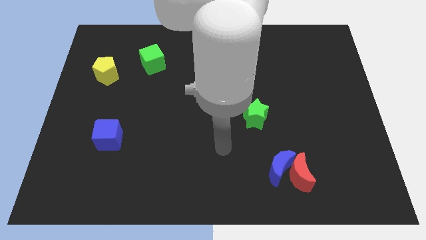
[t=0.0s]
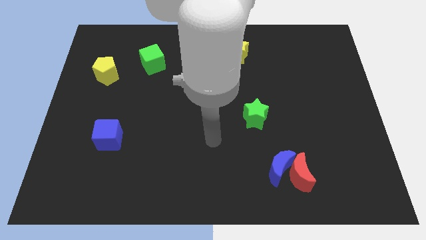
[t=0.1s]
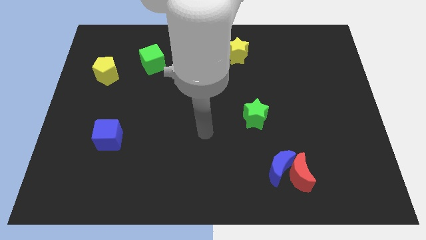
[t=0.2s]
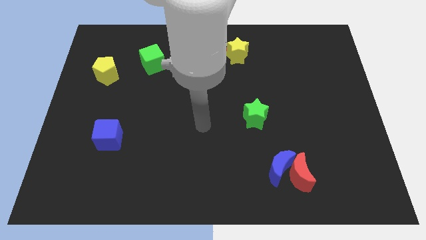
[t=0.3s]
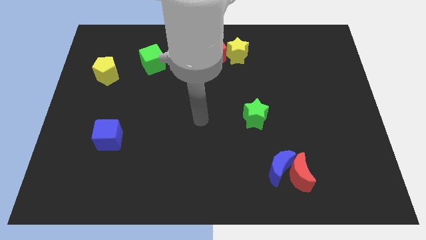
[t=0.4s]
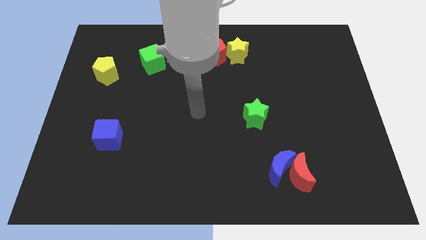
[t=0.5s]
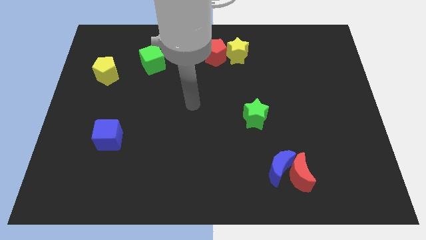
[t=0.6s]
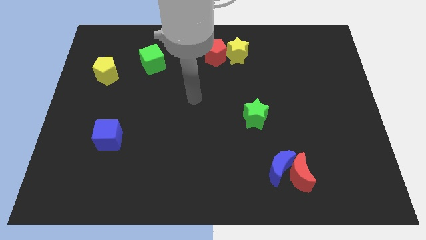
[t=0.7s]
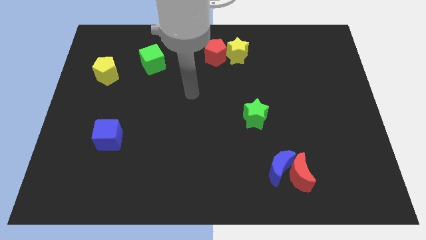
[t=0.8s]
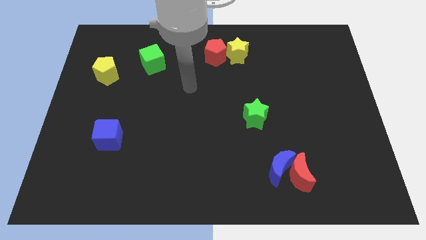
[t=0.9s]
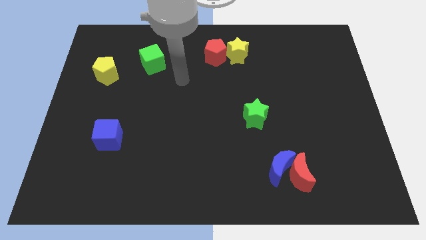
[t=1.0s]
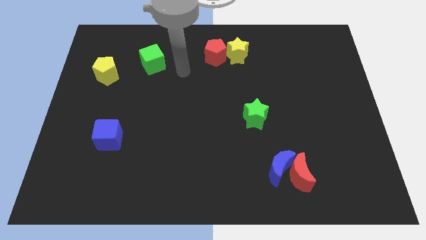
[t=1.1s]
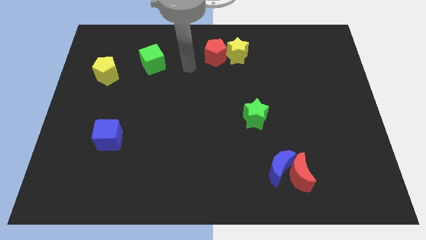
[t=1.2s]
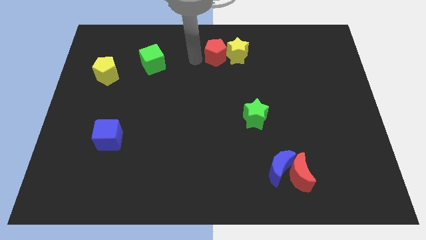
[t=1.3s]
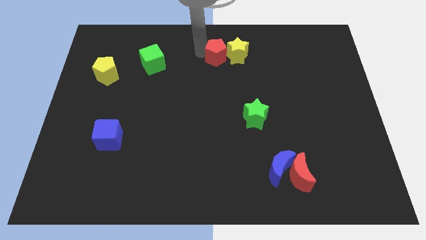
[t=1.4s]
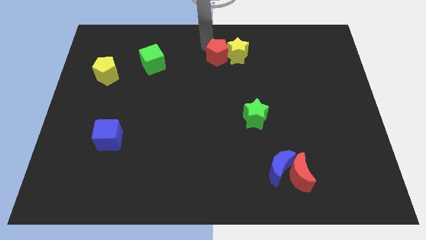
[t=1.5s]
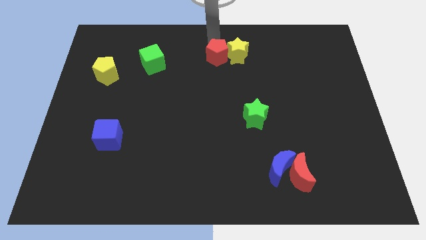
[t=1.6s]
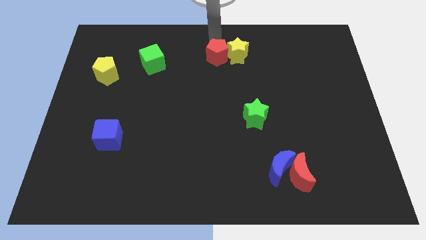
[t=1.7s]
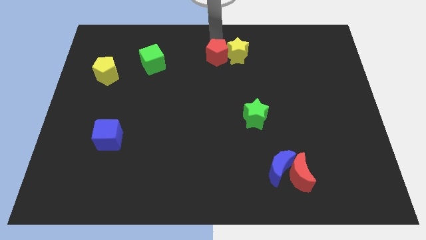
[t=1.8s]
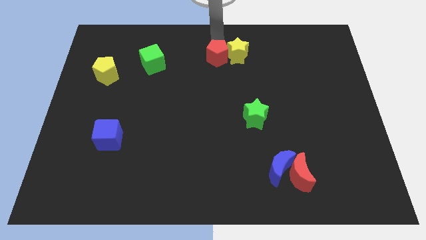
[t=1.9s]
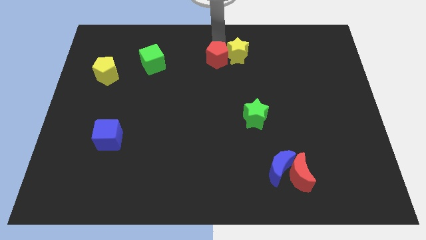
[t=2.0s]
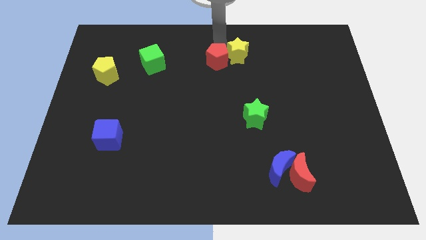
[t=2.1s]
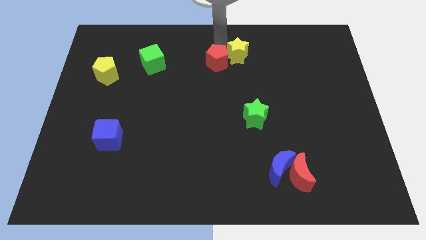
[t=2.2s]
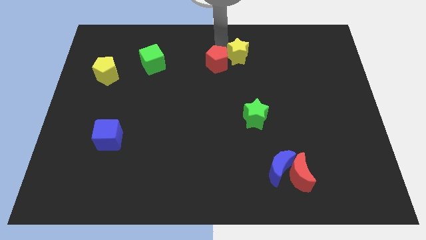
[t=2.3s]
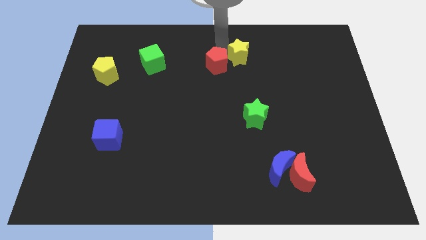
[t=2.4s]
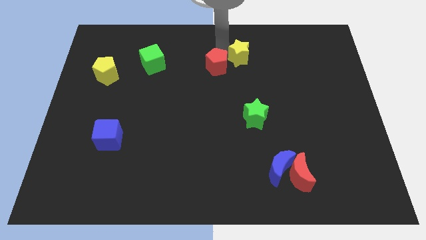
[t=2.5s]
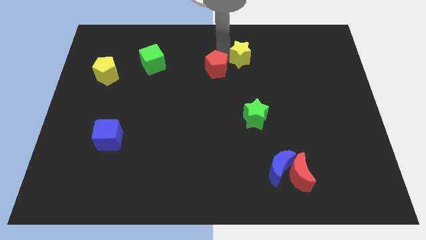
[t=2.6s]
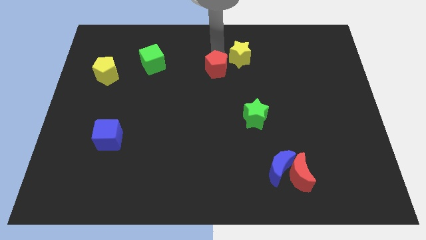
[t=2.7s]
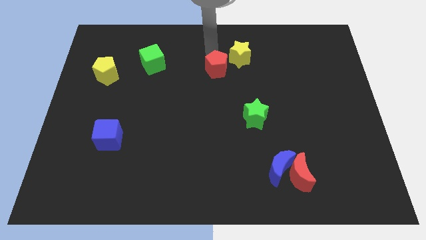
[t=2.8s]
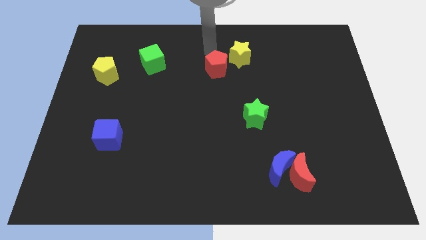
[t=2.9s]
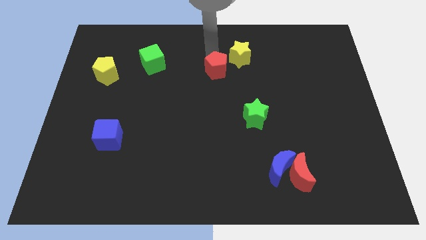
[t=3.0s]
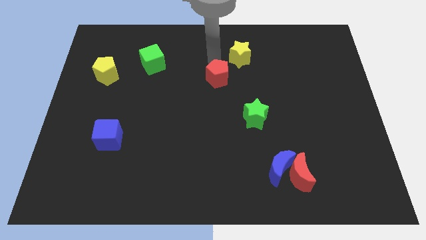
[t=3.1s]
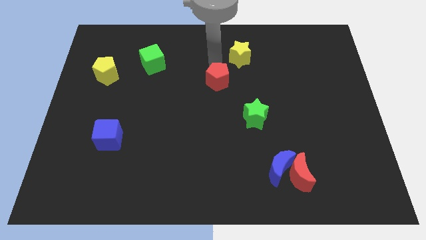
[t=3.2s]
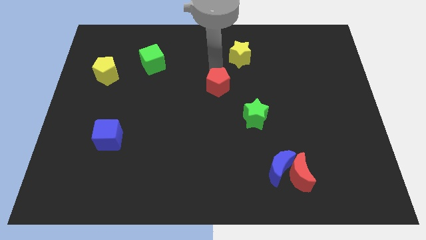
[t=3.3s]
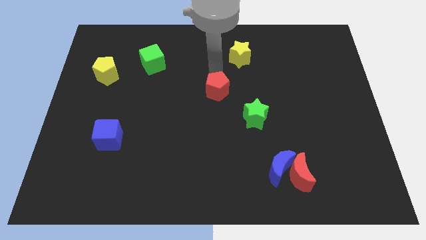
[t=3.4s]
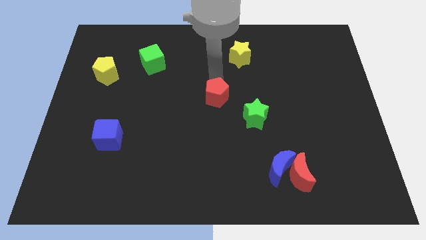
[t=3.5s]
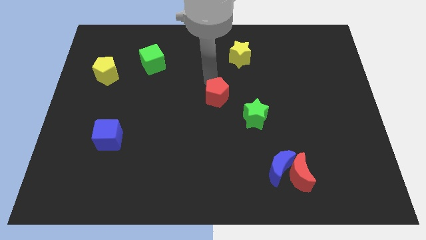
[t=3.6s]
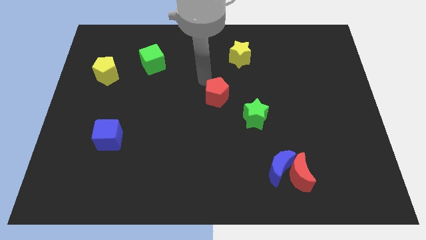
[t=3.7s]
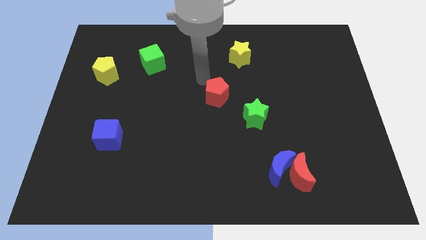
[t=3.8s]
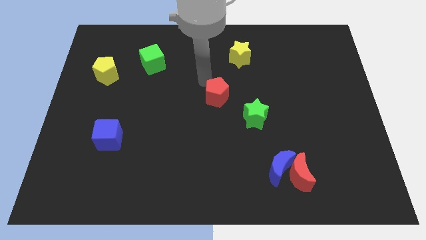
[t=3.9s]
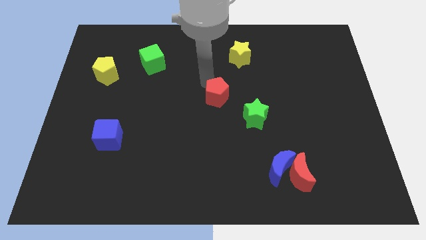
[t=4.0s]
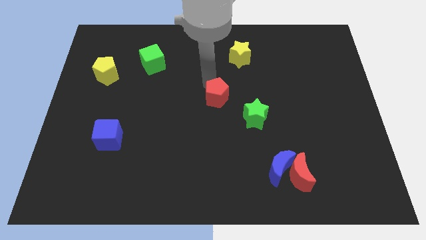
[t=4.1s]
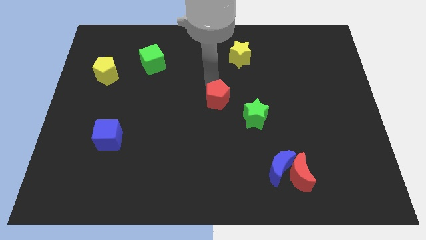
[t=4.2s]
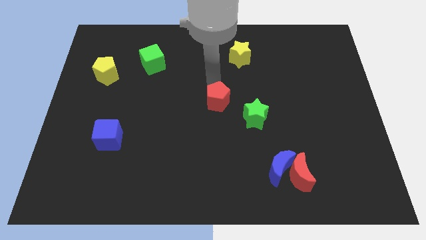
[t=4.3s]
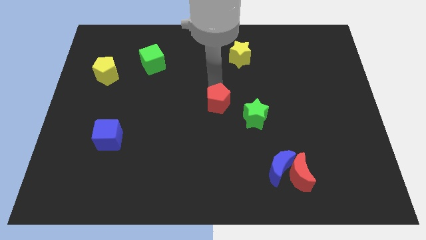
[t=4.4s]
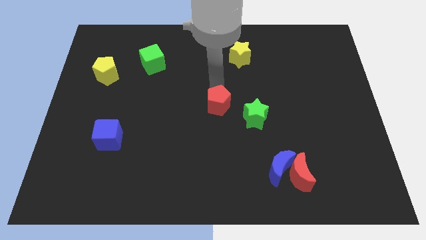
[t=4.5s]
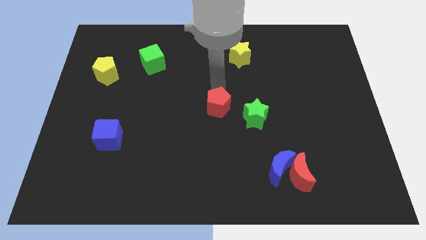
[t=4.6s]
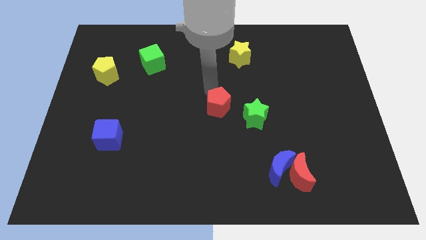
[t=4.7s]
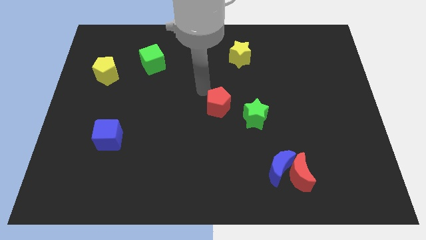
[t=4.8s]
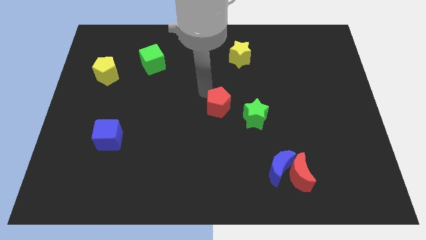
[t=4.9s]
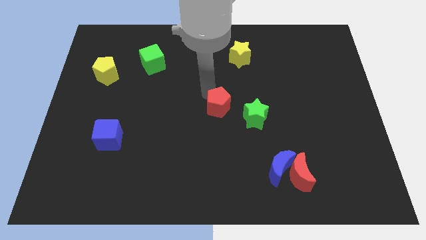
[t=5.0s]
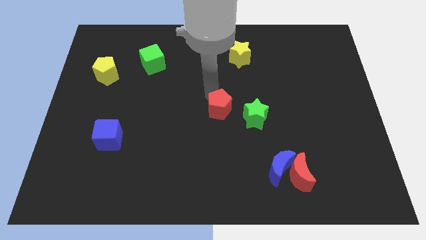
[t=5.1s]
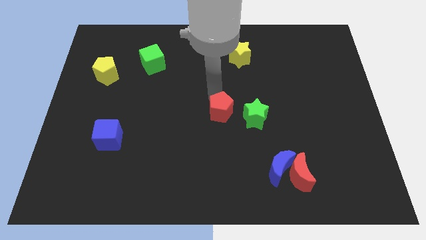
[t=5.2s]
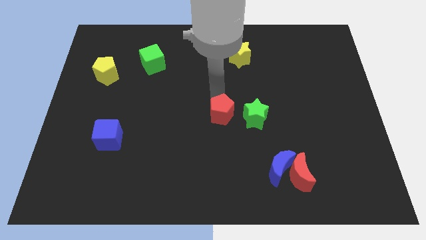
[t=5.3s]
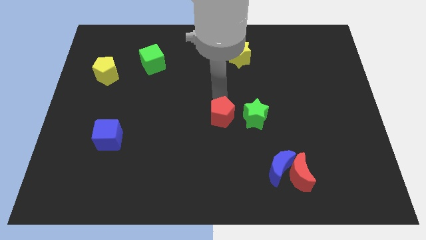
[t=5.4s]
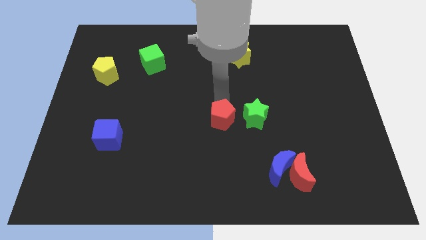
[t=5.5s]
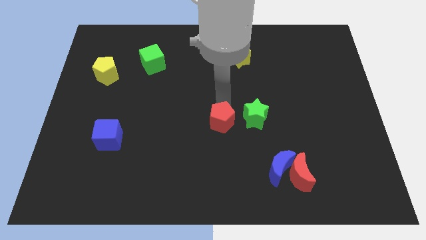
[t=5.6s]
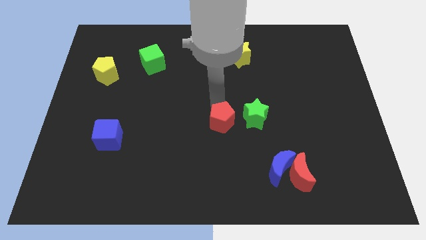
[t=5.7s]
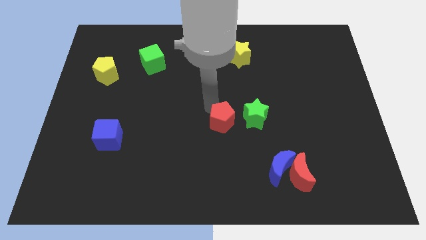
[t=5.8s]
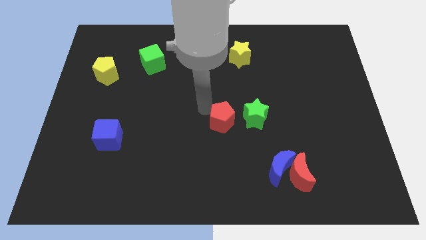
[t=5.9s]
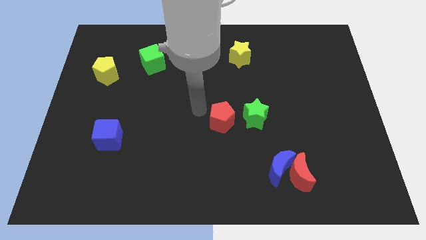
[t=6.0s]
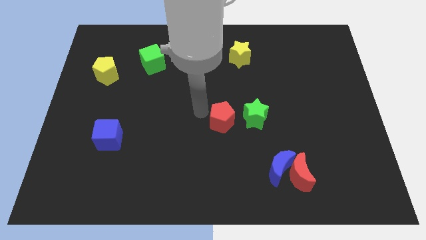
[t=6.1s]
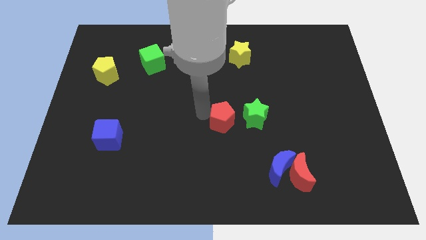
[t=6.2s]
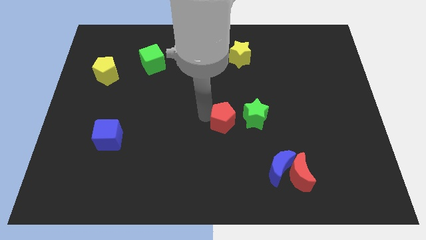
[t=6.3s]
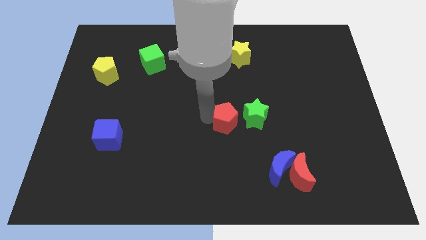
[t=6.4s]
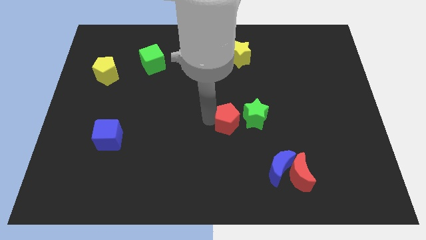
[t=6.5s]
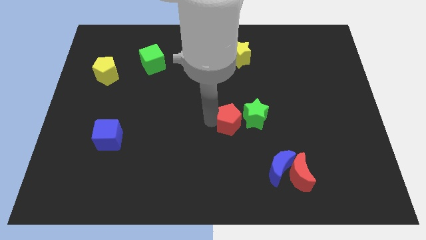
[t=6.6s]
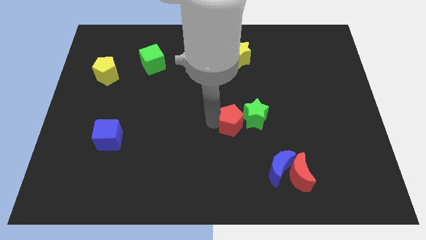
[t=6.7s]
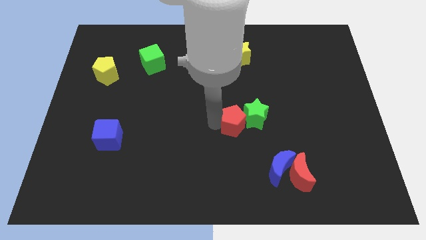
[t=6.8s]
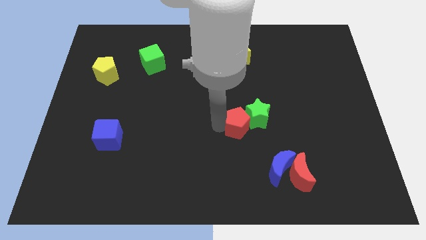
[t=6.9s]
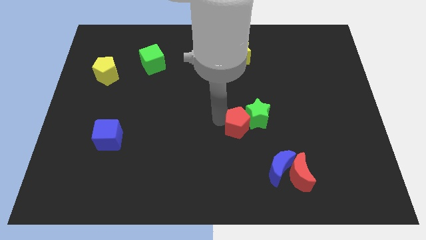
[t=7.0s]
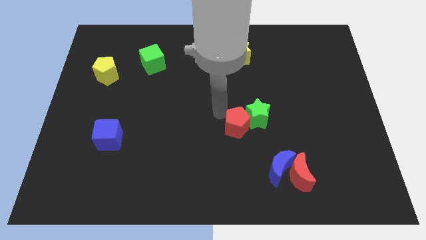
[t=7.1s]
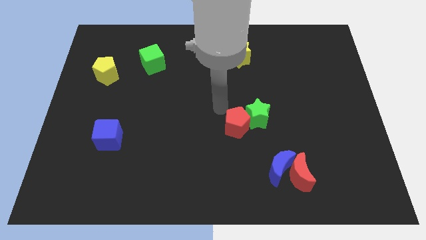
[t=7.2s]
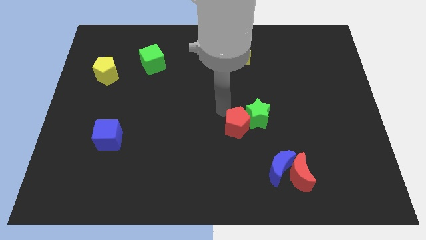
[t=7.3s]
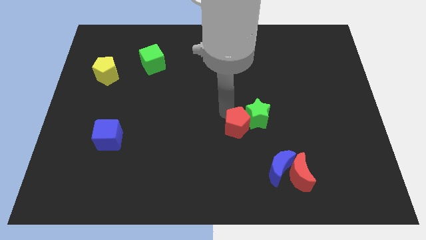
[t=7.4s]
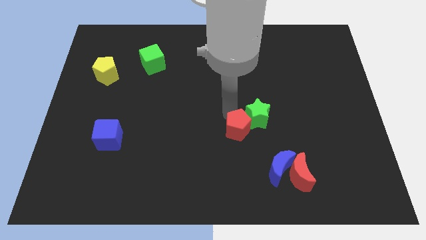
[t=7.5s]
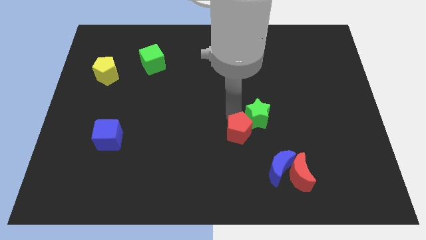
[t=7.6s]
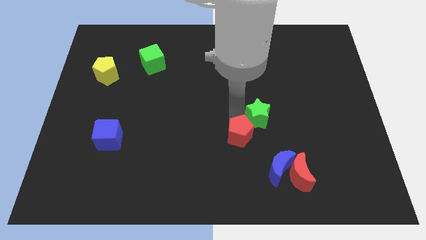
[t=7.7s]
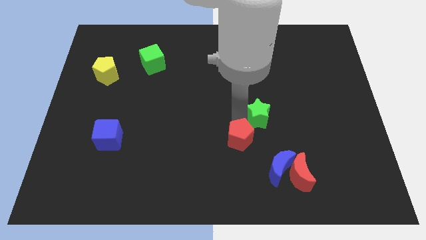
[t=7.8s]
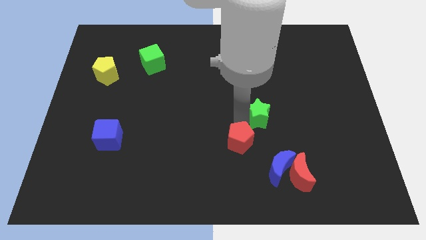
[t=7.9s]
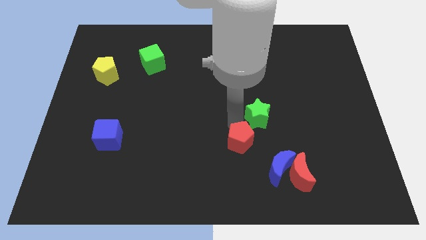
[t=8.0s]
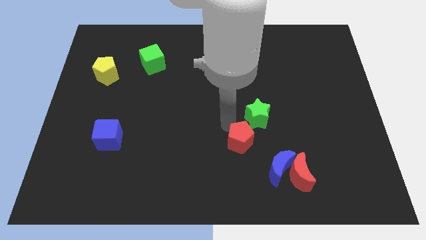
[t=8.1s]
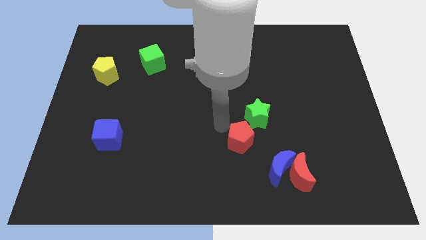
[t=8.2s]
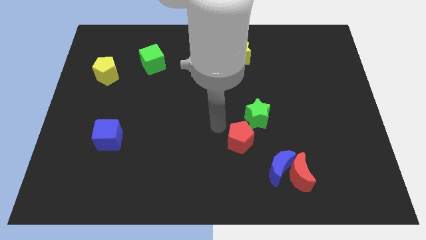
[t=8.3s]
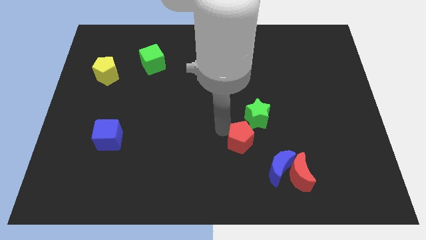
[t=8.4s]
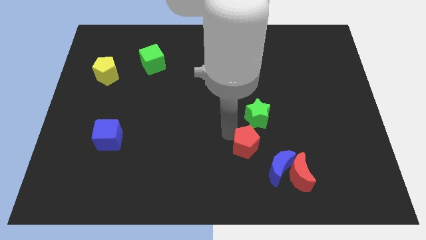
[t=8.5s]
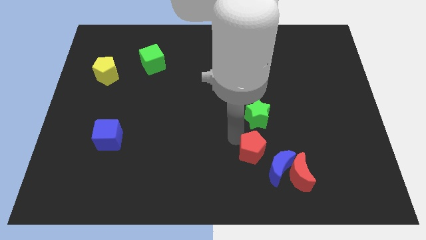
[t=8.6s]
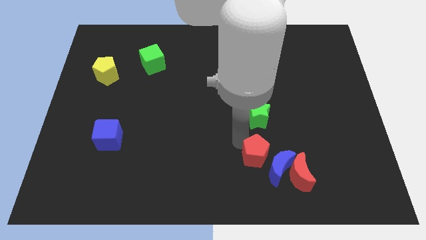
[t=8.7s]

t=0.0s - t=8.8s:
move the red pentagon towards the blue moon
